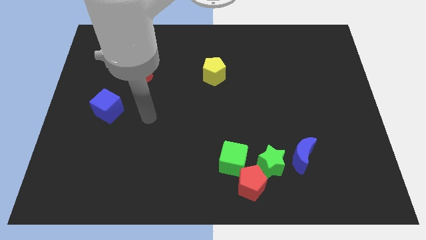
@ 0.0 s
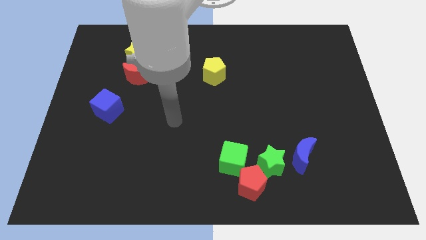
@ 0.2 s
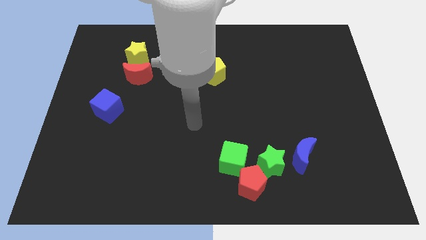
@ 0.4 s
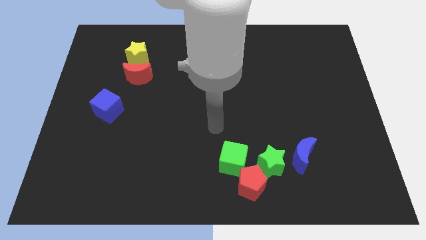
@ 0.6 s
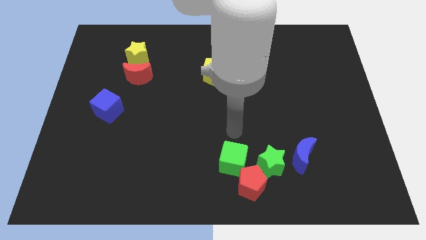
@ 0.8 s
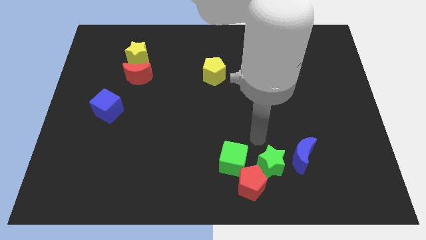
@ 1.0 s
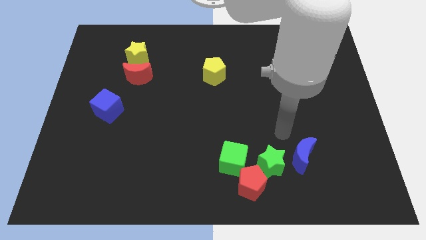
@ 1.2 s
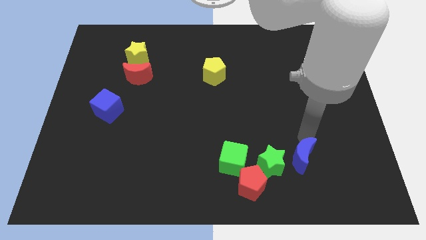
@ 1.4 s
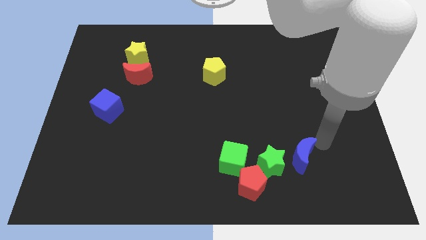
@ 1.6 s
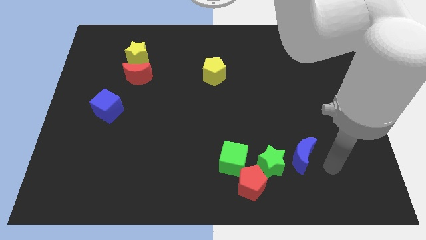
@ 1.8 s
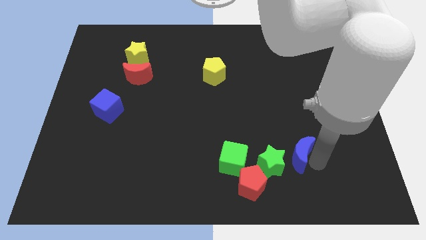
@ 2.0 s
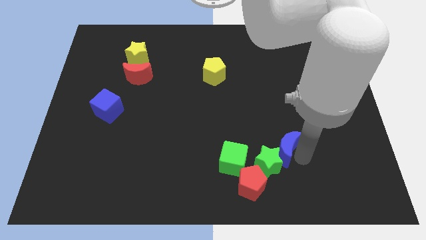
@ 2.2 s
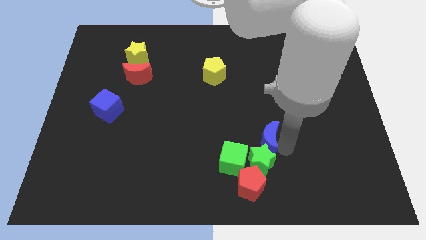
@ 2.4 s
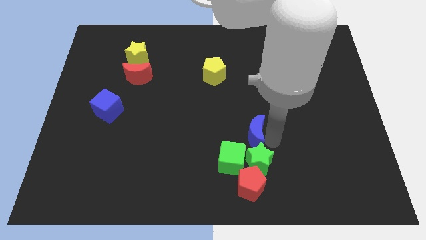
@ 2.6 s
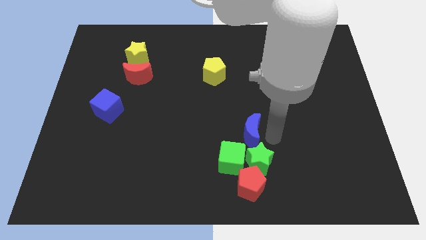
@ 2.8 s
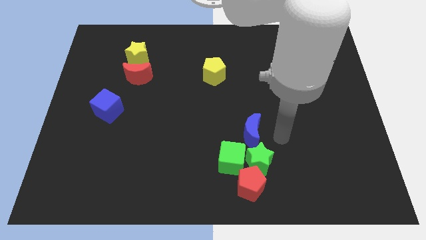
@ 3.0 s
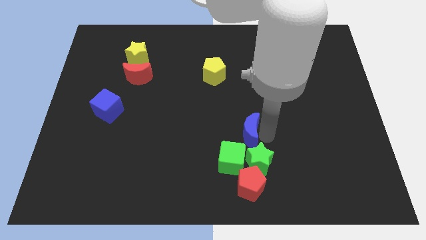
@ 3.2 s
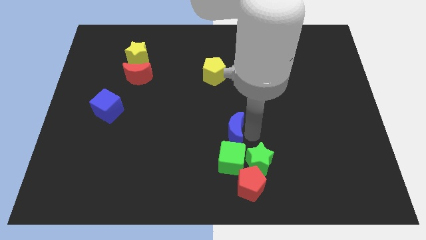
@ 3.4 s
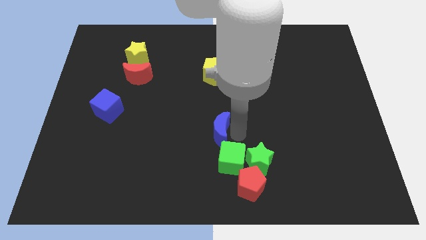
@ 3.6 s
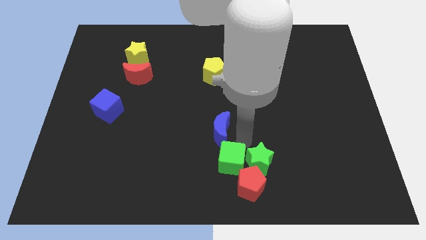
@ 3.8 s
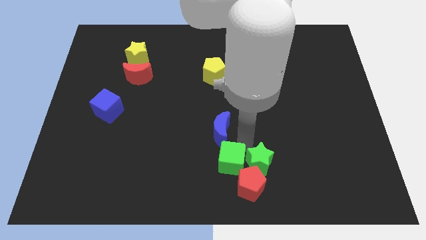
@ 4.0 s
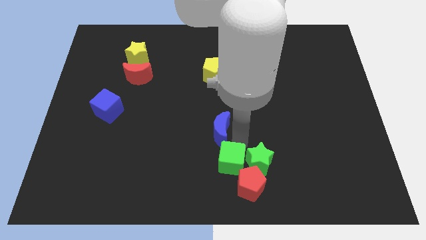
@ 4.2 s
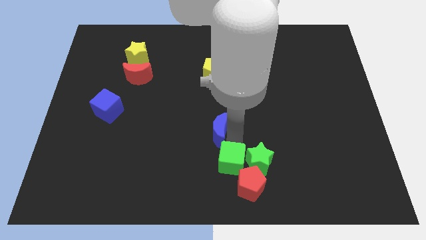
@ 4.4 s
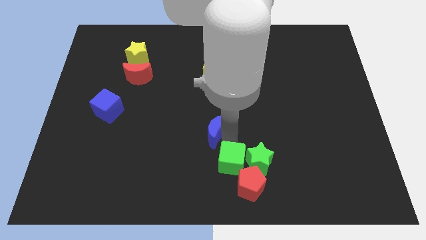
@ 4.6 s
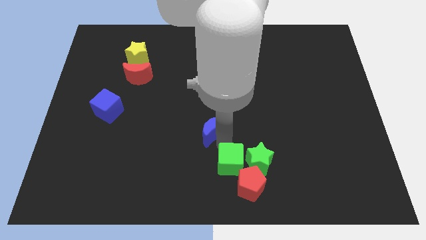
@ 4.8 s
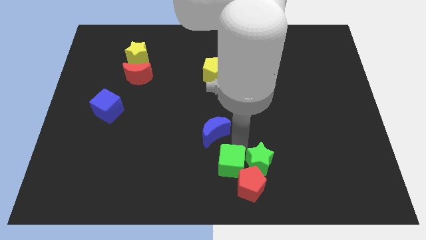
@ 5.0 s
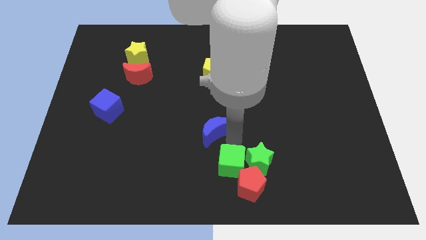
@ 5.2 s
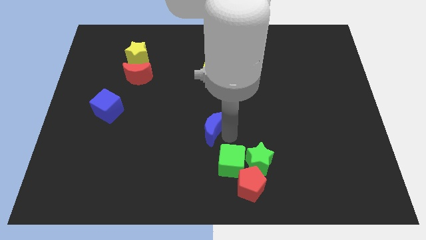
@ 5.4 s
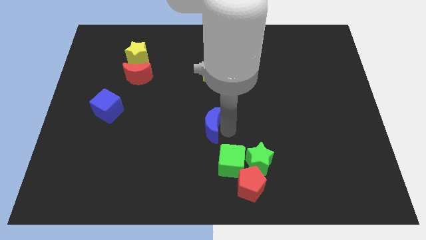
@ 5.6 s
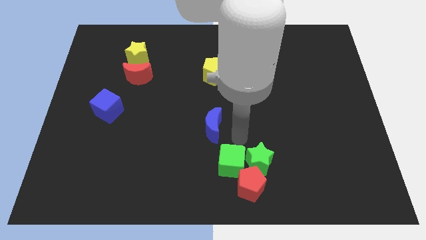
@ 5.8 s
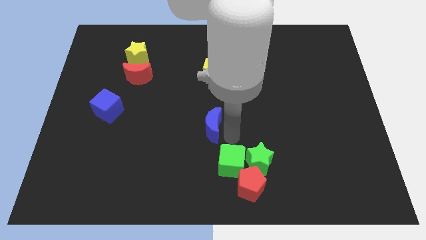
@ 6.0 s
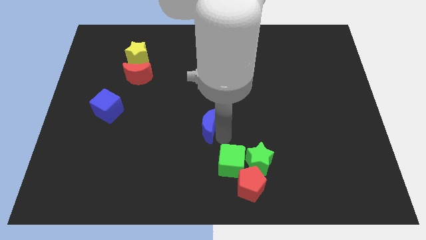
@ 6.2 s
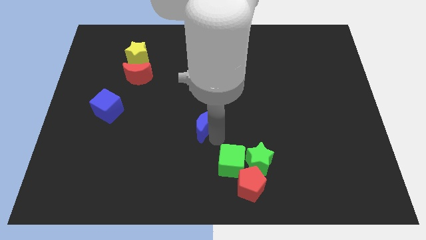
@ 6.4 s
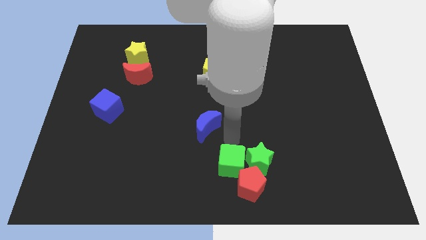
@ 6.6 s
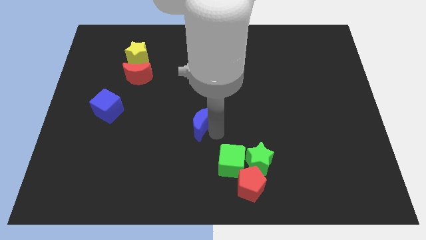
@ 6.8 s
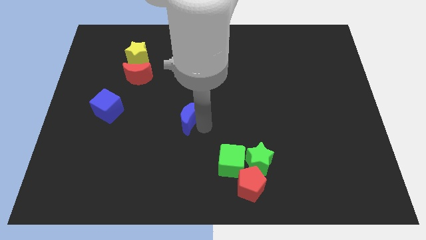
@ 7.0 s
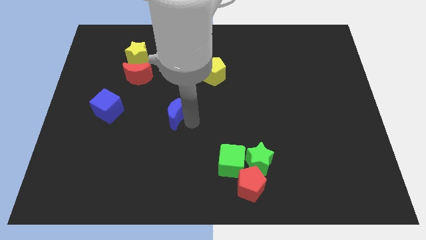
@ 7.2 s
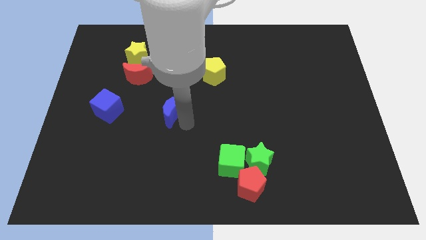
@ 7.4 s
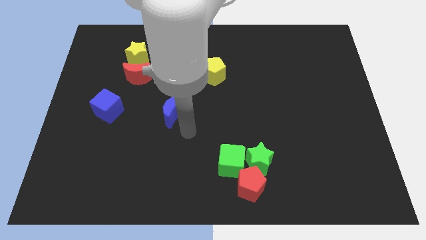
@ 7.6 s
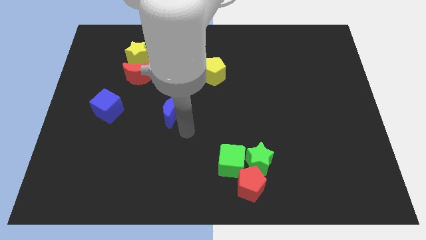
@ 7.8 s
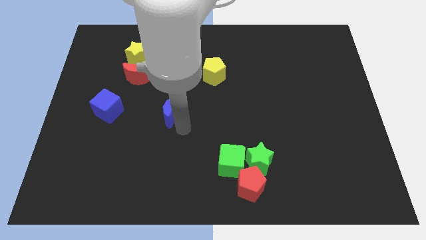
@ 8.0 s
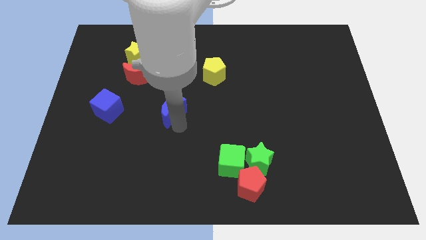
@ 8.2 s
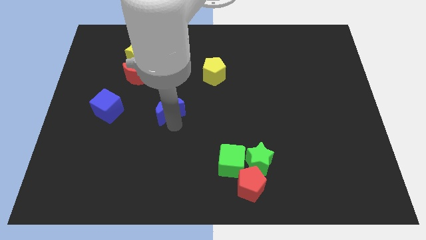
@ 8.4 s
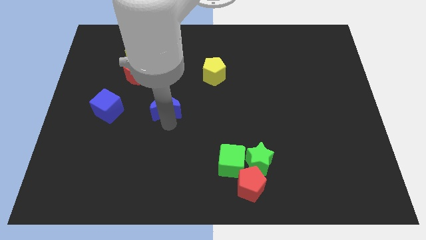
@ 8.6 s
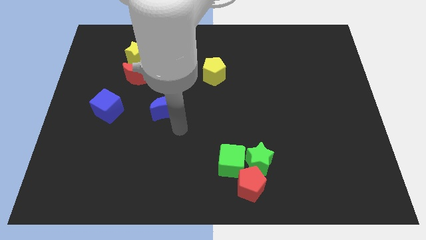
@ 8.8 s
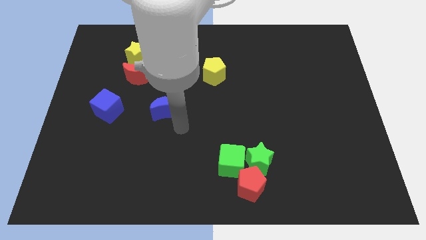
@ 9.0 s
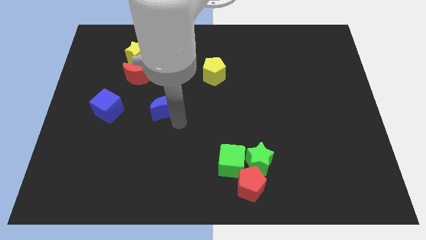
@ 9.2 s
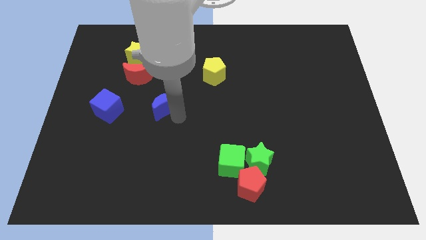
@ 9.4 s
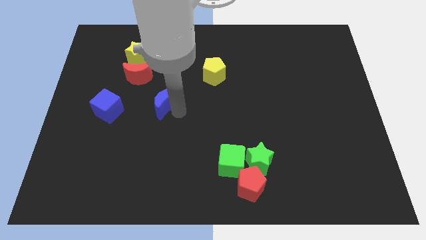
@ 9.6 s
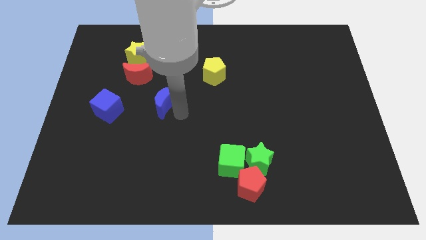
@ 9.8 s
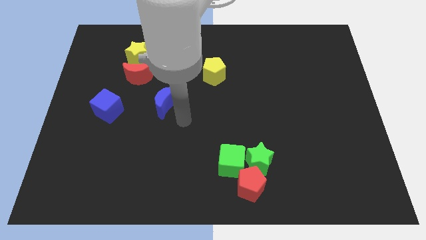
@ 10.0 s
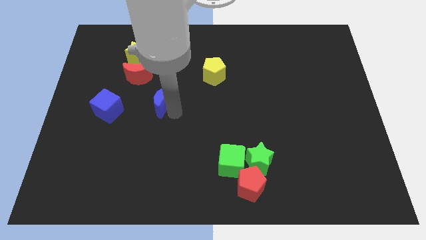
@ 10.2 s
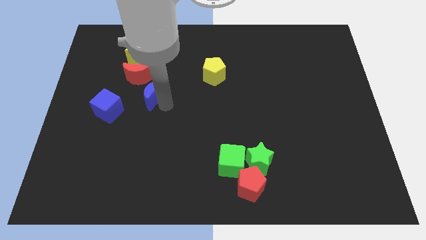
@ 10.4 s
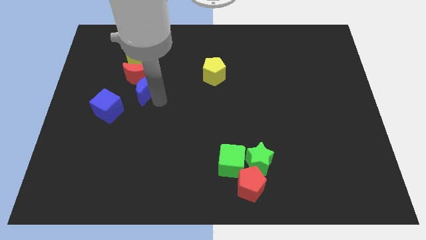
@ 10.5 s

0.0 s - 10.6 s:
move the blue moon to the red moon

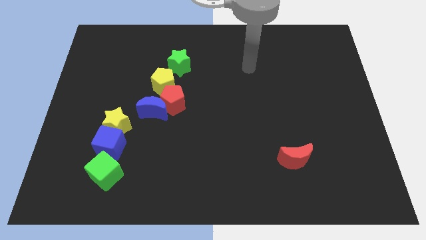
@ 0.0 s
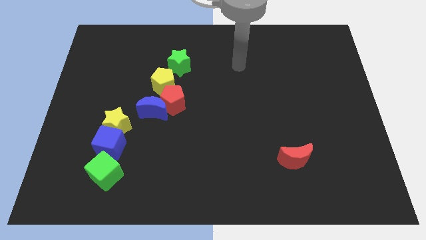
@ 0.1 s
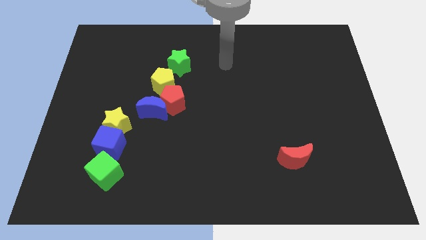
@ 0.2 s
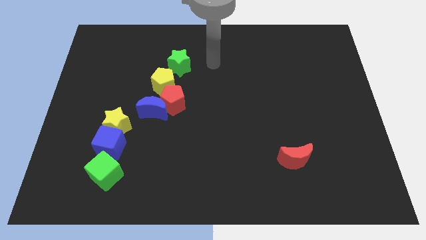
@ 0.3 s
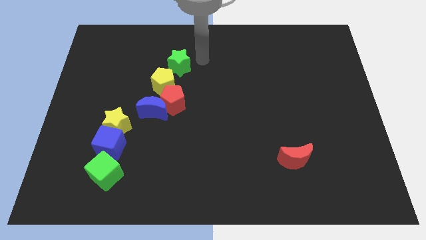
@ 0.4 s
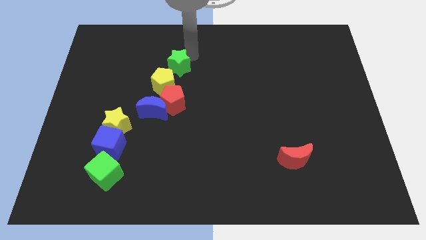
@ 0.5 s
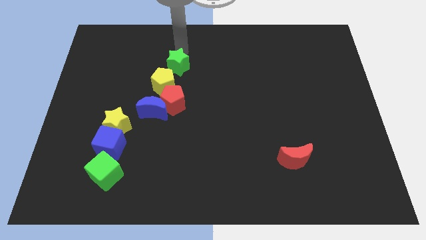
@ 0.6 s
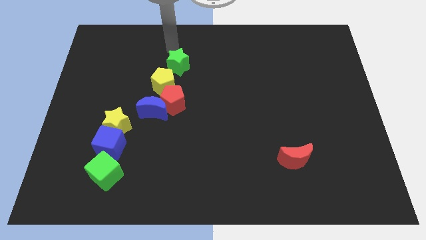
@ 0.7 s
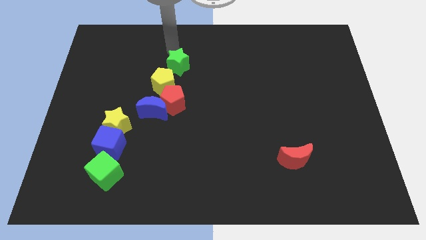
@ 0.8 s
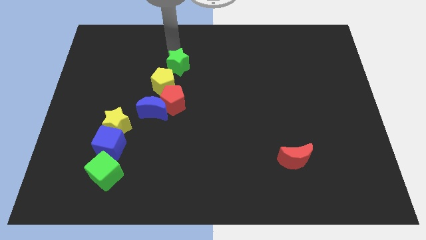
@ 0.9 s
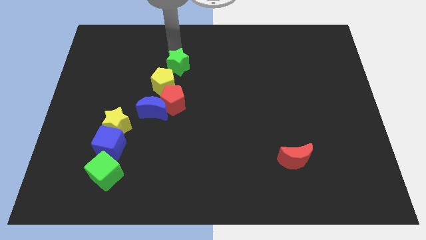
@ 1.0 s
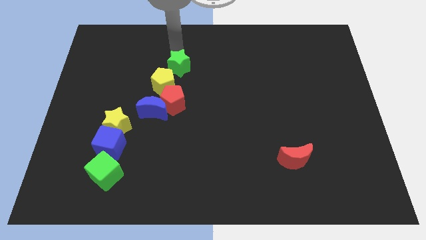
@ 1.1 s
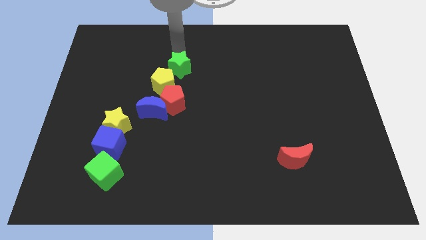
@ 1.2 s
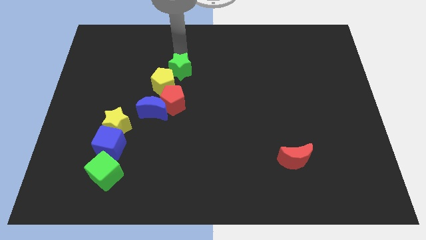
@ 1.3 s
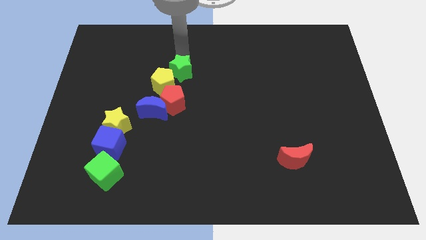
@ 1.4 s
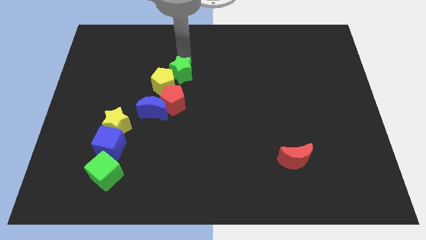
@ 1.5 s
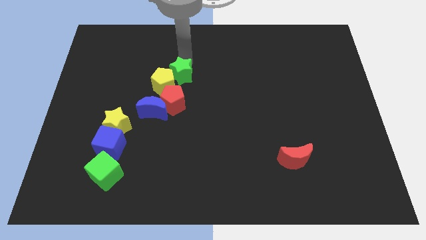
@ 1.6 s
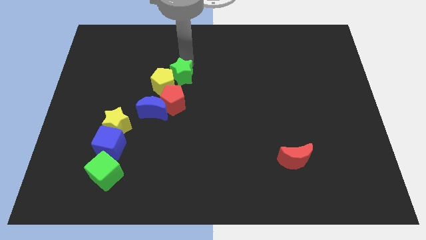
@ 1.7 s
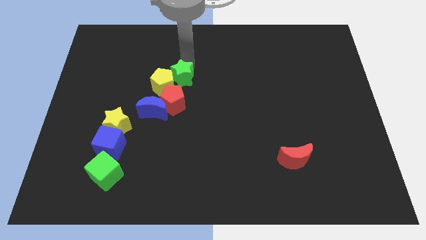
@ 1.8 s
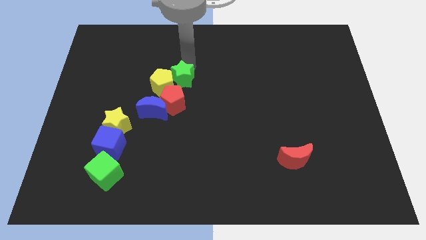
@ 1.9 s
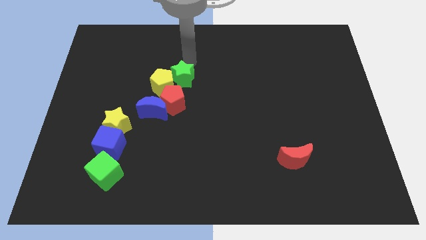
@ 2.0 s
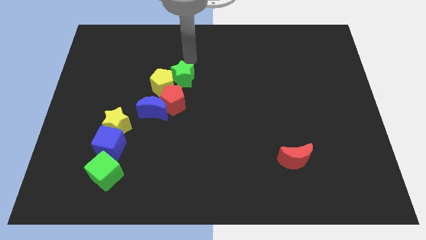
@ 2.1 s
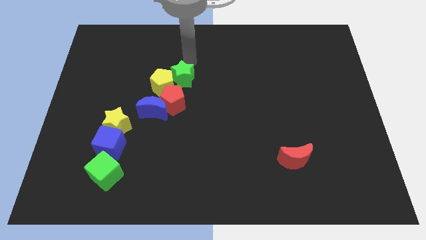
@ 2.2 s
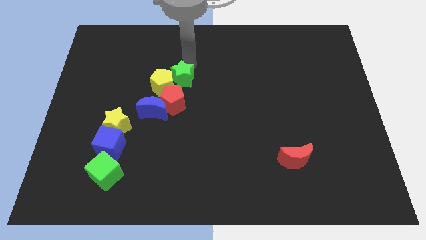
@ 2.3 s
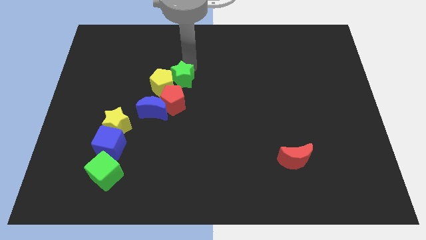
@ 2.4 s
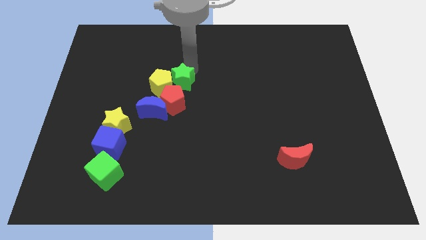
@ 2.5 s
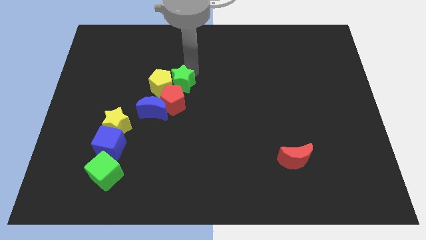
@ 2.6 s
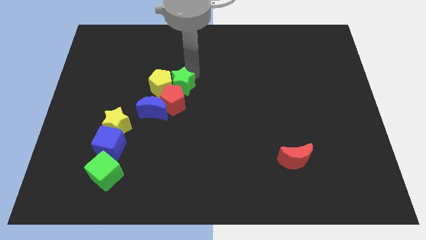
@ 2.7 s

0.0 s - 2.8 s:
slide the green star next to the red pentagon
